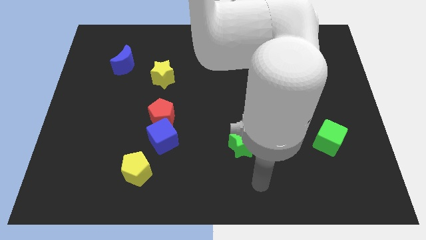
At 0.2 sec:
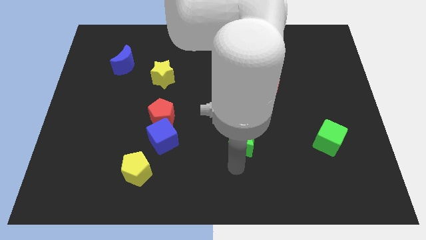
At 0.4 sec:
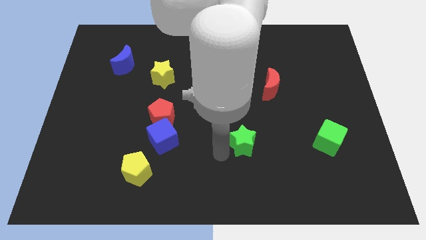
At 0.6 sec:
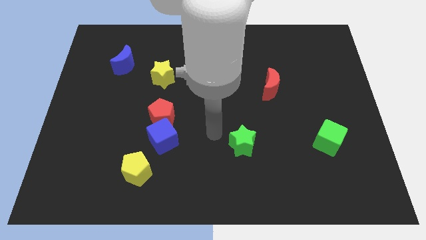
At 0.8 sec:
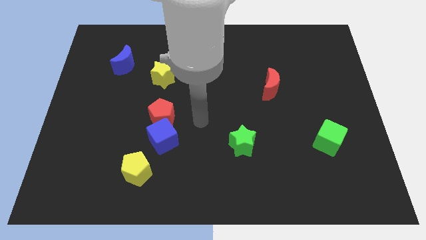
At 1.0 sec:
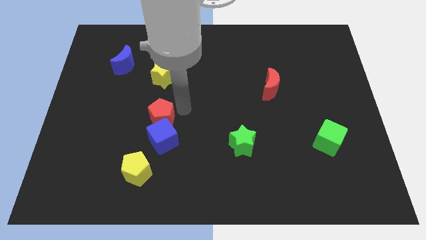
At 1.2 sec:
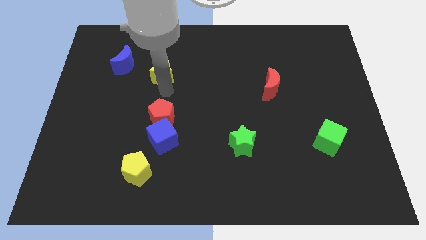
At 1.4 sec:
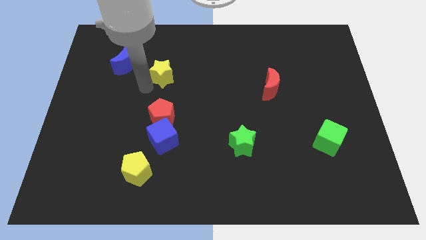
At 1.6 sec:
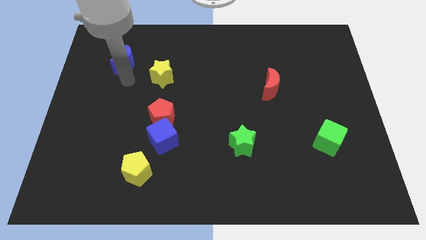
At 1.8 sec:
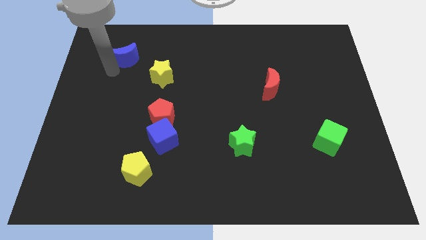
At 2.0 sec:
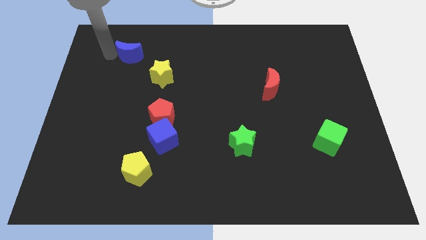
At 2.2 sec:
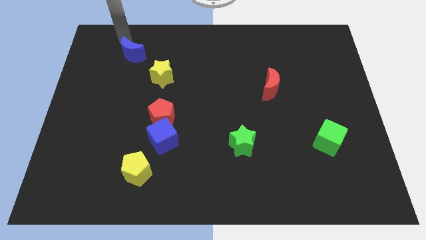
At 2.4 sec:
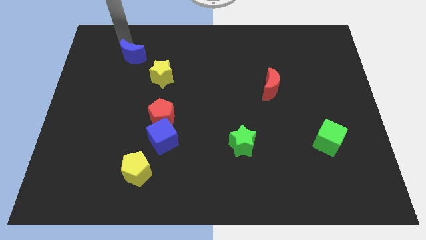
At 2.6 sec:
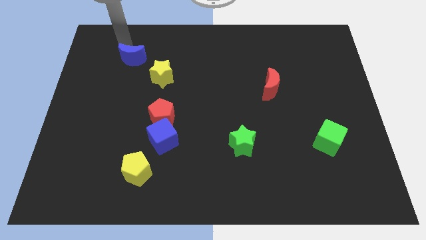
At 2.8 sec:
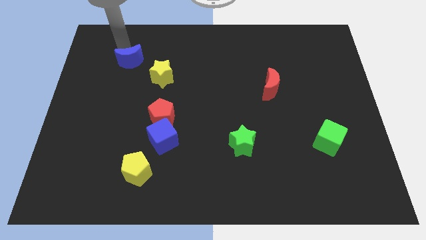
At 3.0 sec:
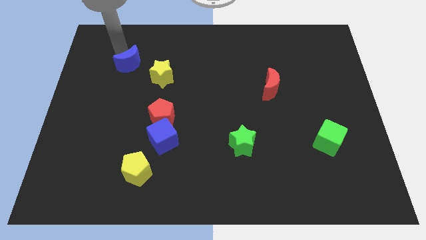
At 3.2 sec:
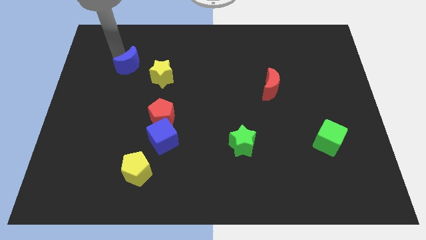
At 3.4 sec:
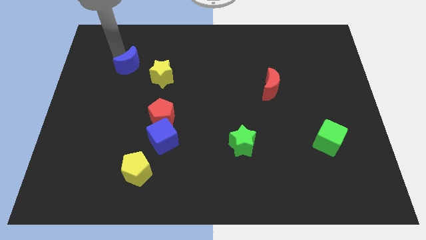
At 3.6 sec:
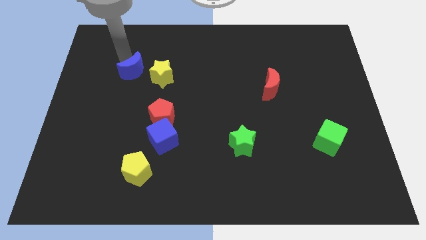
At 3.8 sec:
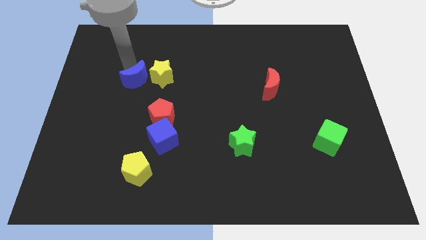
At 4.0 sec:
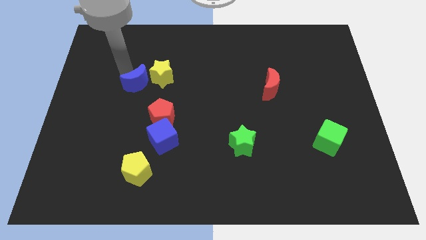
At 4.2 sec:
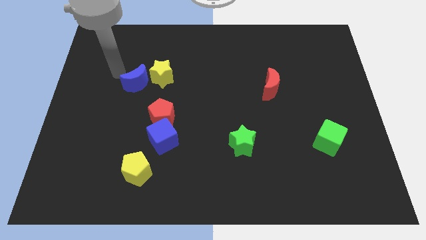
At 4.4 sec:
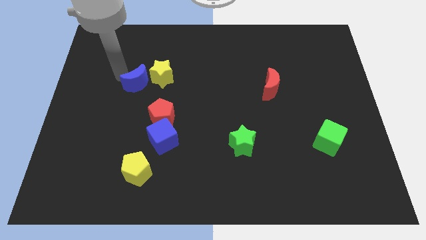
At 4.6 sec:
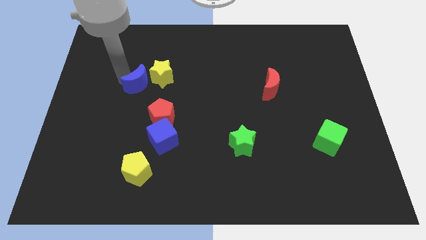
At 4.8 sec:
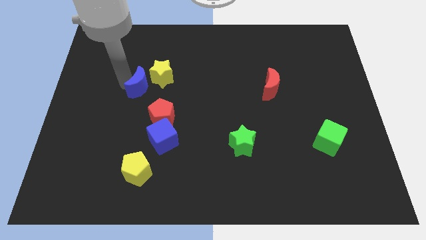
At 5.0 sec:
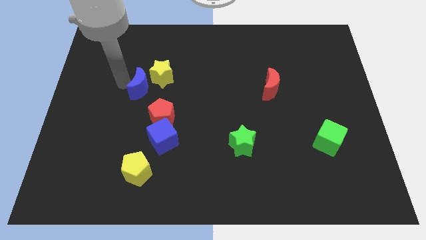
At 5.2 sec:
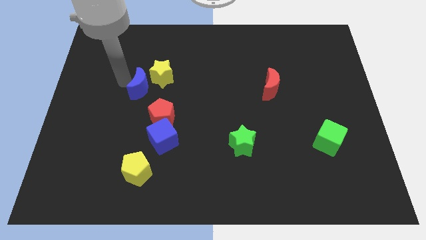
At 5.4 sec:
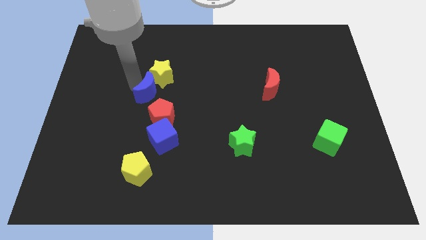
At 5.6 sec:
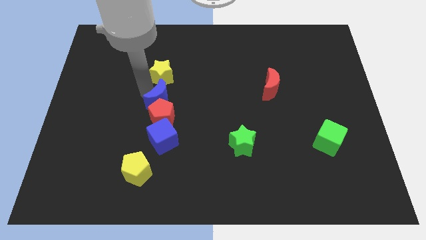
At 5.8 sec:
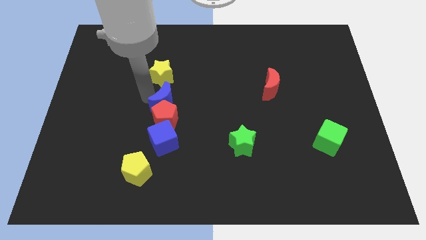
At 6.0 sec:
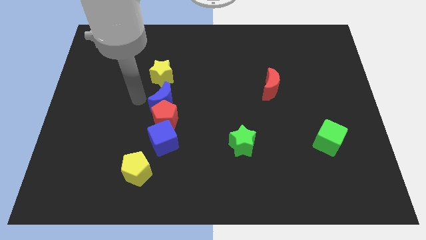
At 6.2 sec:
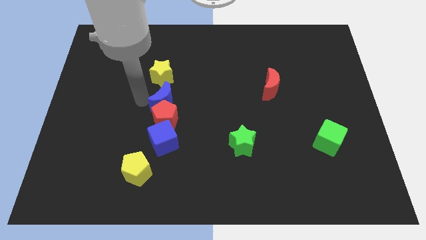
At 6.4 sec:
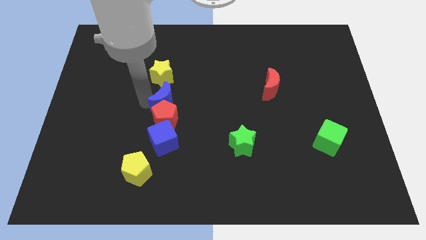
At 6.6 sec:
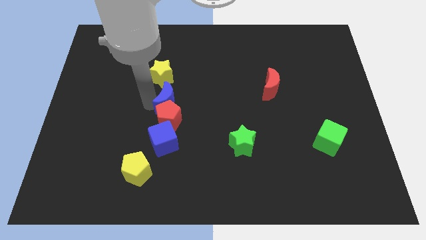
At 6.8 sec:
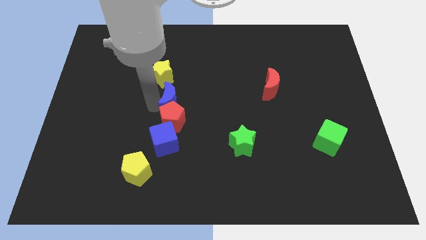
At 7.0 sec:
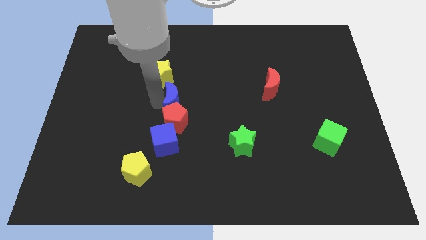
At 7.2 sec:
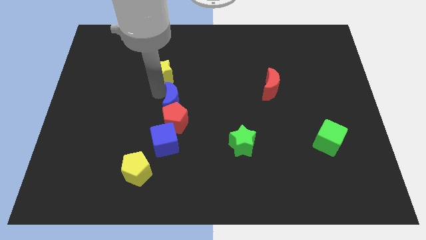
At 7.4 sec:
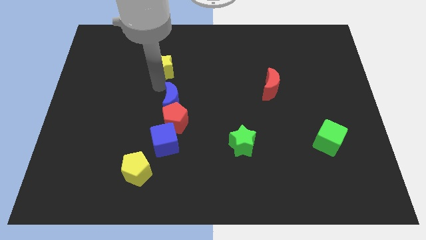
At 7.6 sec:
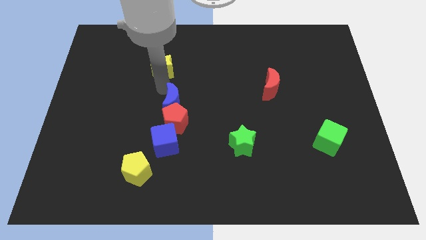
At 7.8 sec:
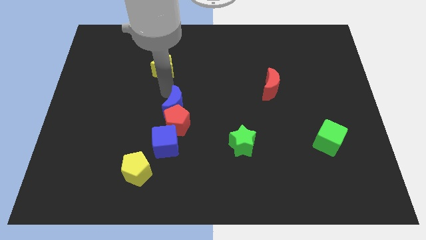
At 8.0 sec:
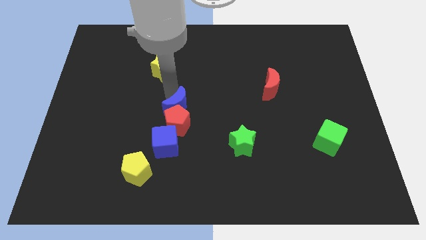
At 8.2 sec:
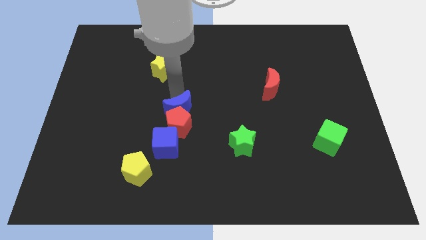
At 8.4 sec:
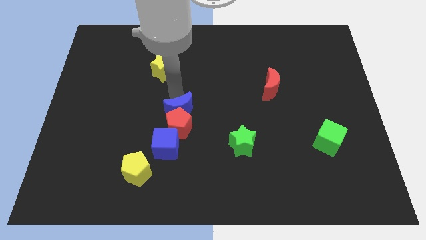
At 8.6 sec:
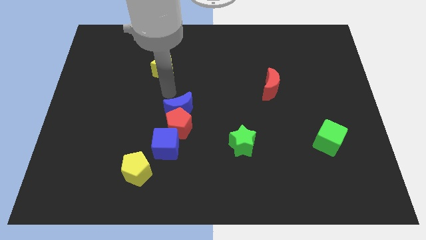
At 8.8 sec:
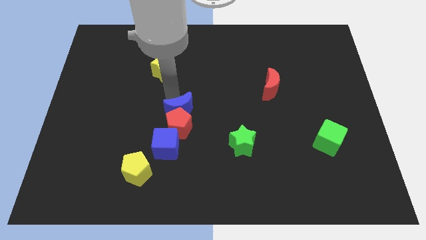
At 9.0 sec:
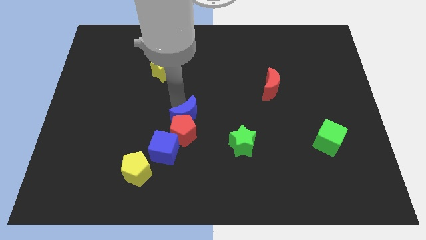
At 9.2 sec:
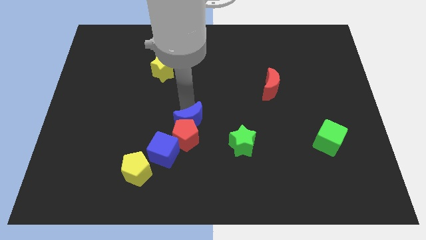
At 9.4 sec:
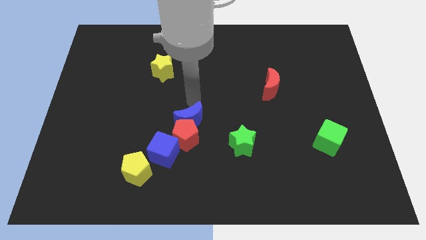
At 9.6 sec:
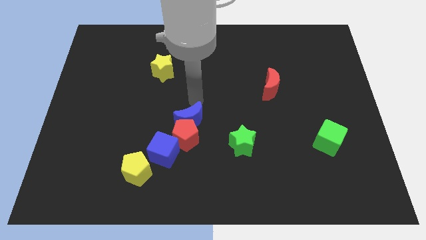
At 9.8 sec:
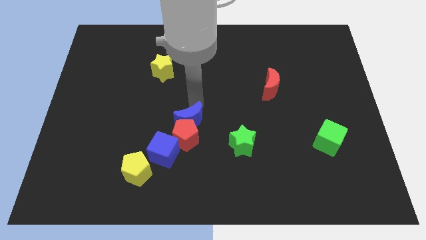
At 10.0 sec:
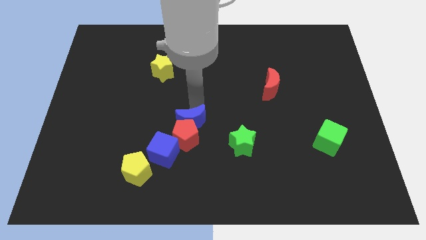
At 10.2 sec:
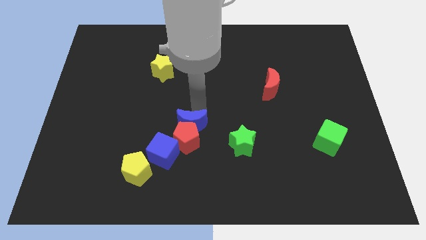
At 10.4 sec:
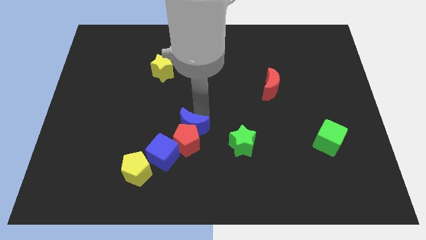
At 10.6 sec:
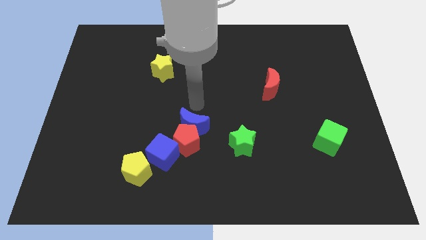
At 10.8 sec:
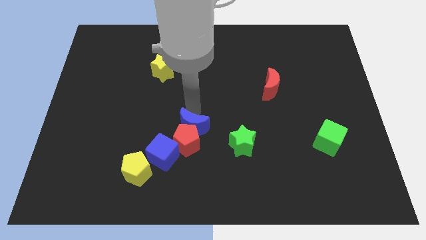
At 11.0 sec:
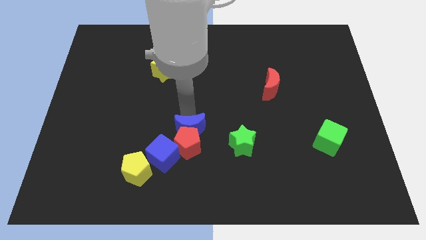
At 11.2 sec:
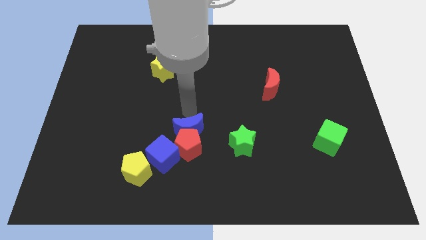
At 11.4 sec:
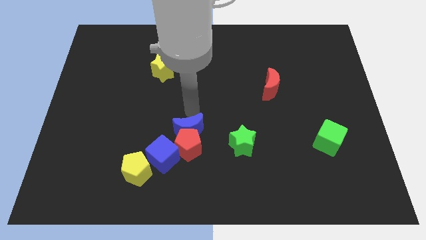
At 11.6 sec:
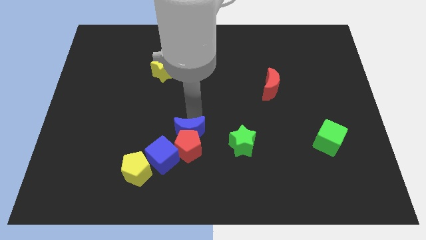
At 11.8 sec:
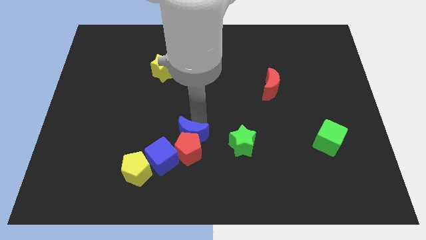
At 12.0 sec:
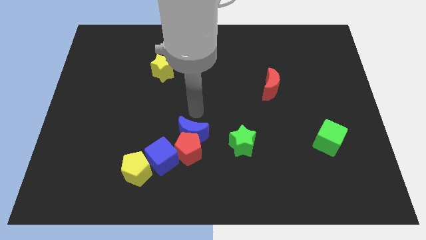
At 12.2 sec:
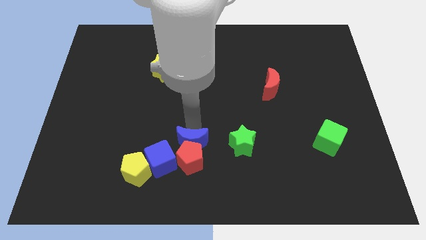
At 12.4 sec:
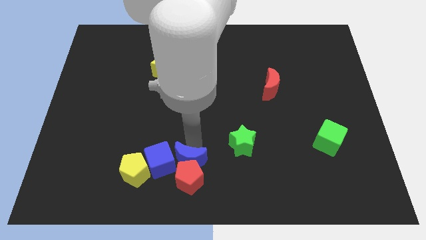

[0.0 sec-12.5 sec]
push the blue moon diagonally down and to the right of the blue cube

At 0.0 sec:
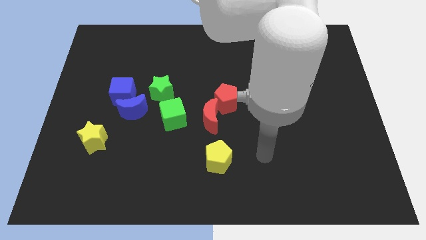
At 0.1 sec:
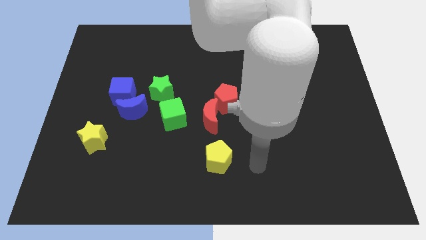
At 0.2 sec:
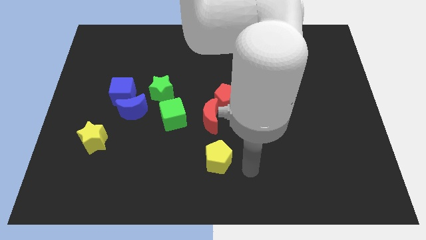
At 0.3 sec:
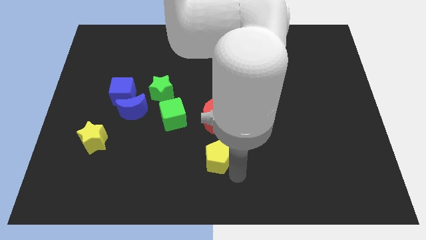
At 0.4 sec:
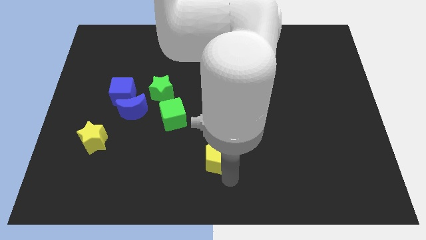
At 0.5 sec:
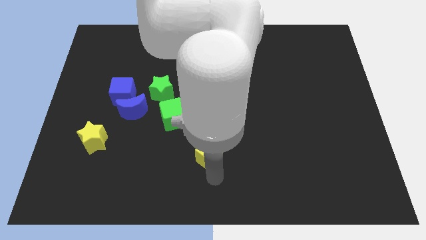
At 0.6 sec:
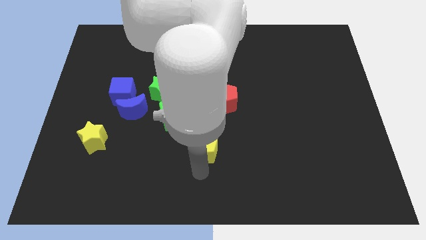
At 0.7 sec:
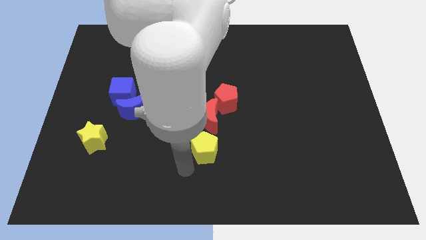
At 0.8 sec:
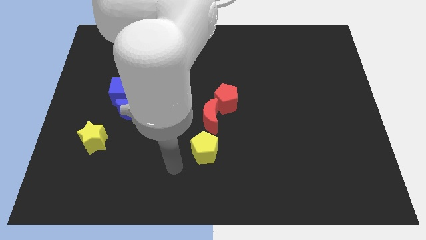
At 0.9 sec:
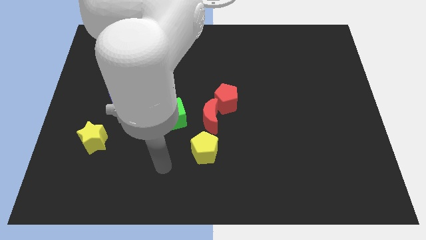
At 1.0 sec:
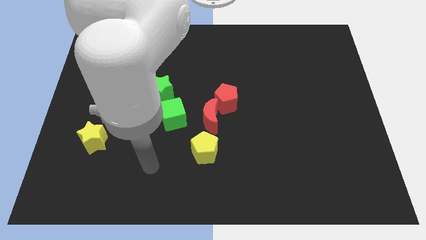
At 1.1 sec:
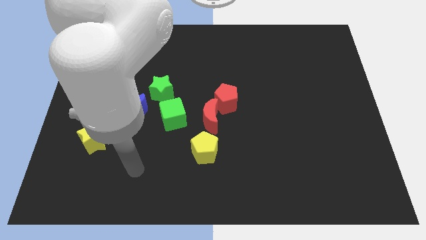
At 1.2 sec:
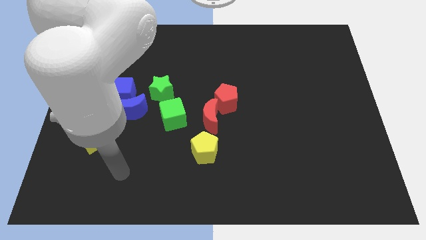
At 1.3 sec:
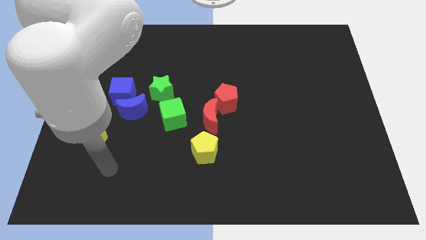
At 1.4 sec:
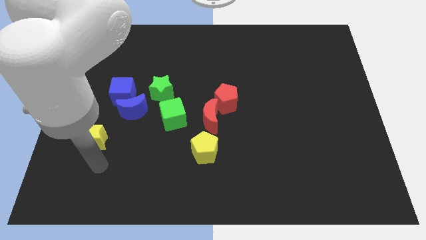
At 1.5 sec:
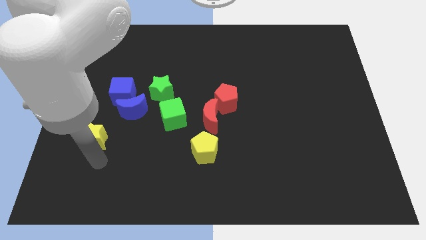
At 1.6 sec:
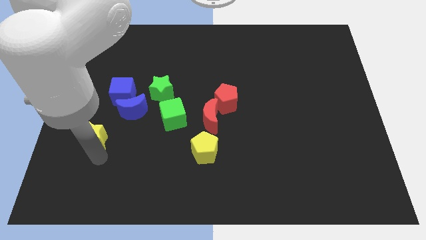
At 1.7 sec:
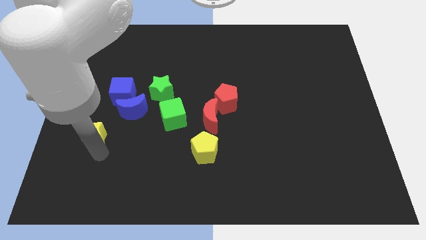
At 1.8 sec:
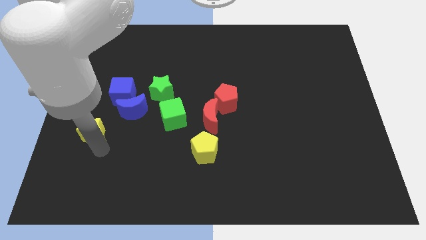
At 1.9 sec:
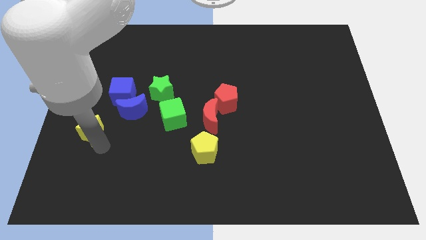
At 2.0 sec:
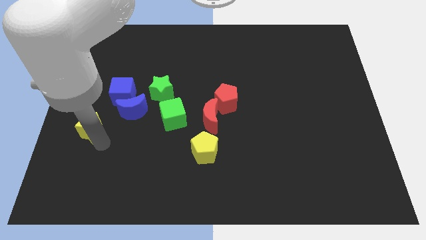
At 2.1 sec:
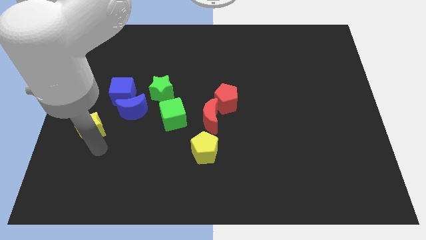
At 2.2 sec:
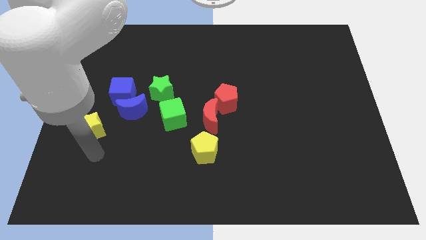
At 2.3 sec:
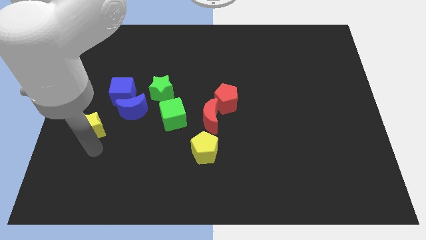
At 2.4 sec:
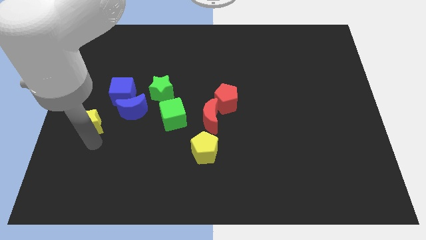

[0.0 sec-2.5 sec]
put the yellow star just left of the blue moon
